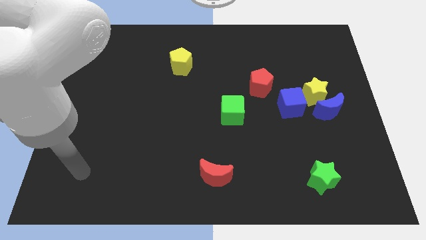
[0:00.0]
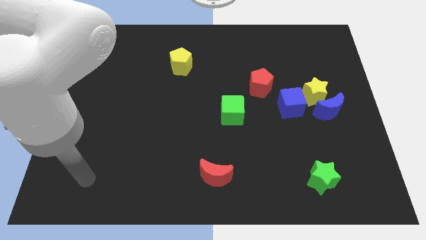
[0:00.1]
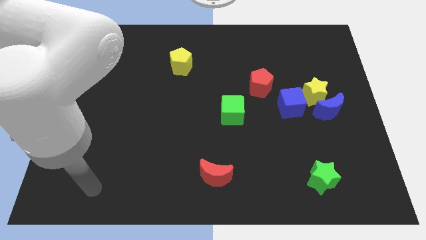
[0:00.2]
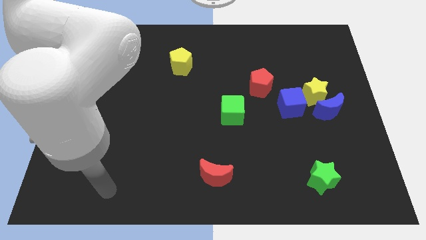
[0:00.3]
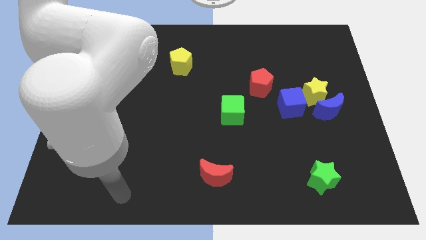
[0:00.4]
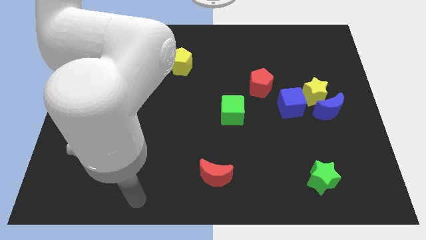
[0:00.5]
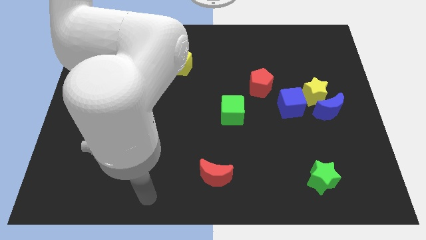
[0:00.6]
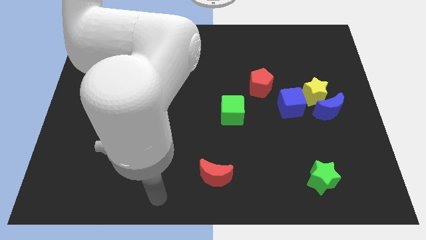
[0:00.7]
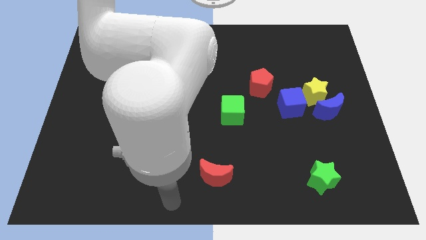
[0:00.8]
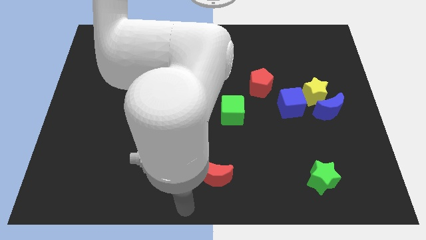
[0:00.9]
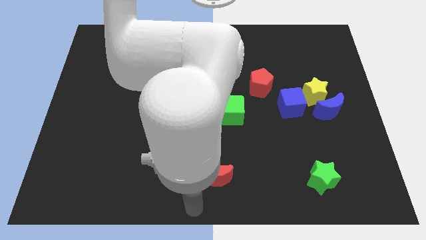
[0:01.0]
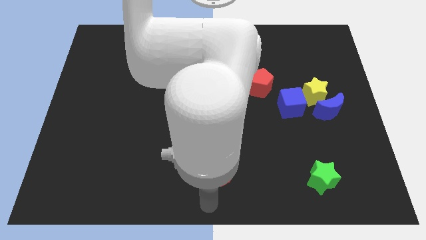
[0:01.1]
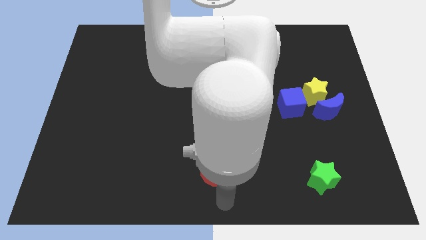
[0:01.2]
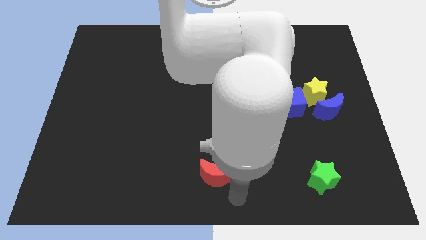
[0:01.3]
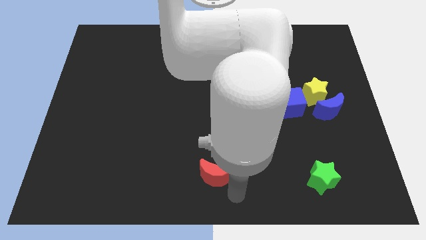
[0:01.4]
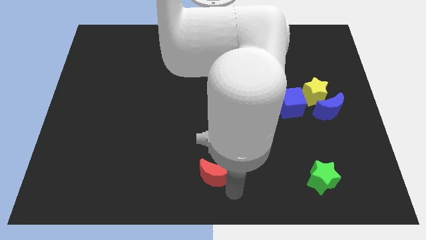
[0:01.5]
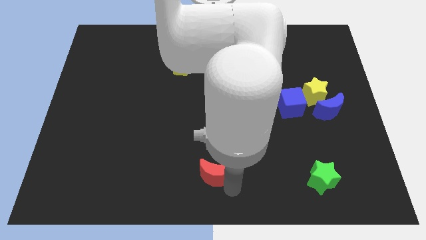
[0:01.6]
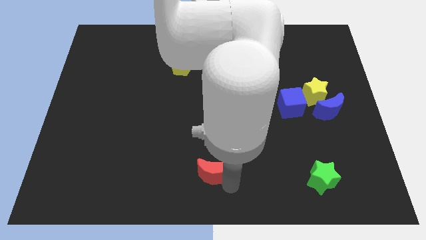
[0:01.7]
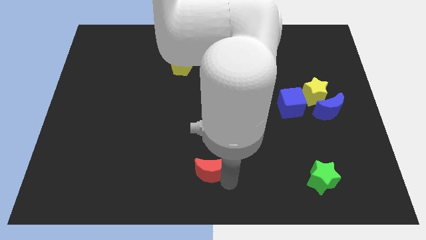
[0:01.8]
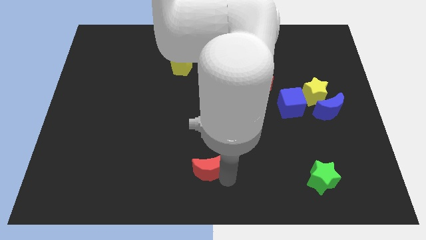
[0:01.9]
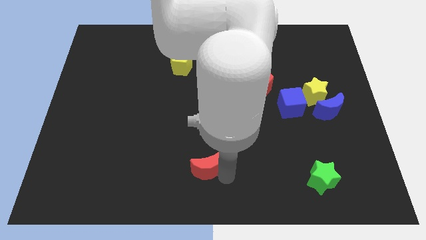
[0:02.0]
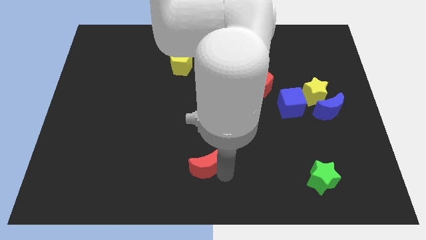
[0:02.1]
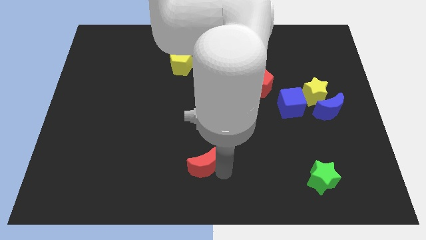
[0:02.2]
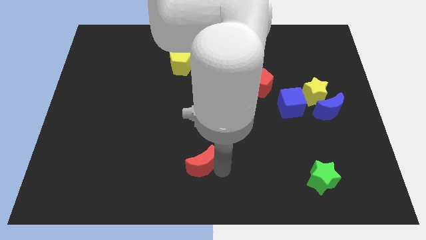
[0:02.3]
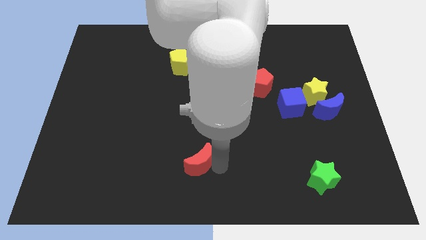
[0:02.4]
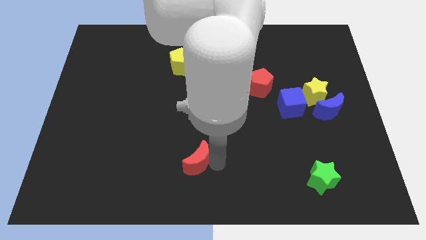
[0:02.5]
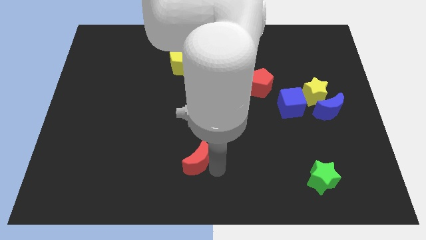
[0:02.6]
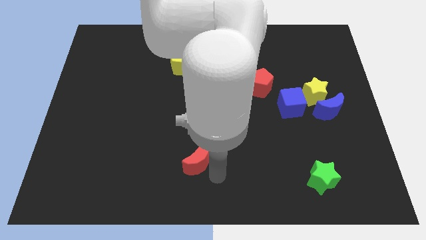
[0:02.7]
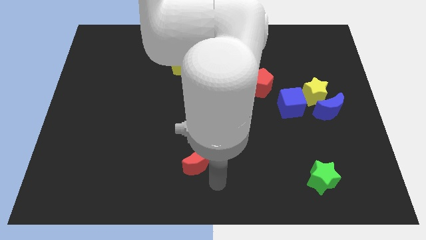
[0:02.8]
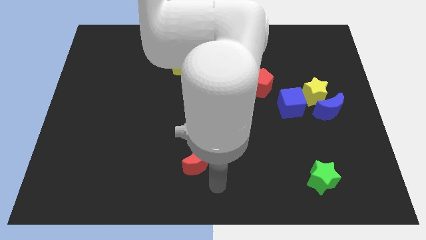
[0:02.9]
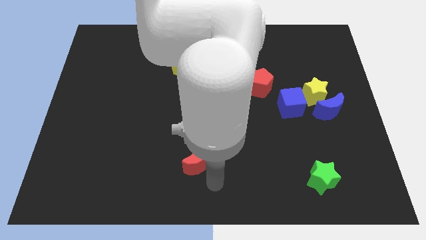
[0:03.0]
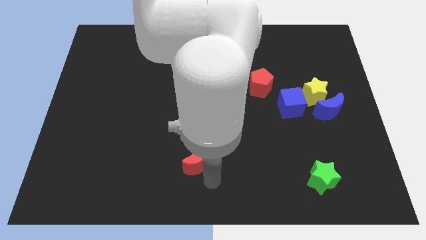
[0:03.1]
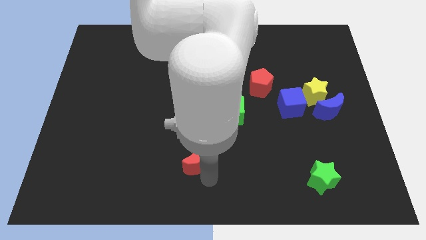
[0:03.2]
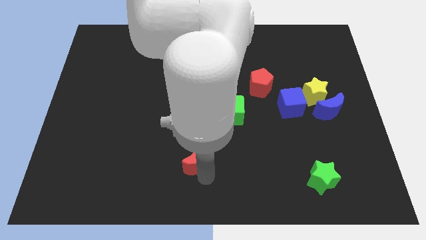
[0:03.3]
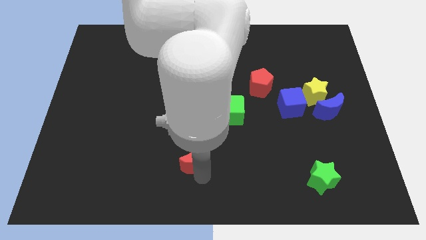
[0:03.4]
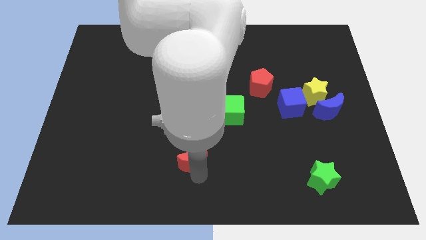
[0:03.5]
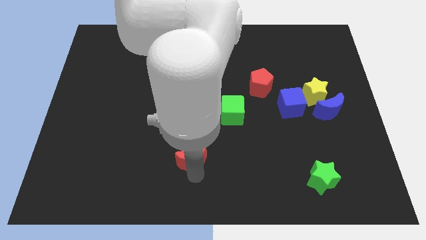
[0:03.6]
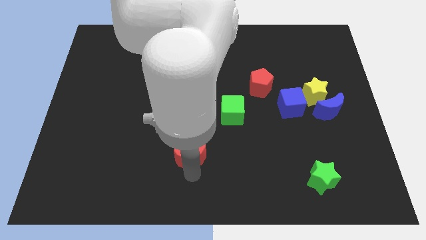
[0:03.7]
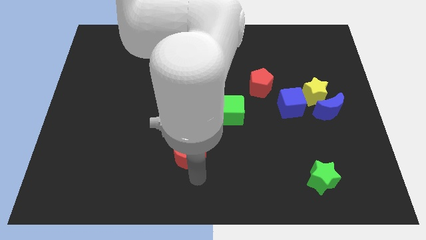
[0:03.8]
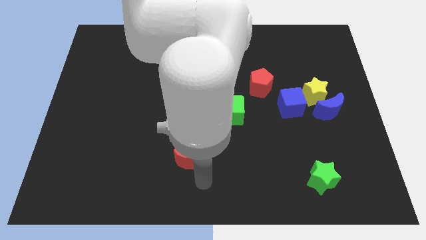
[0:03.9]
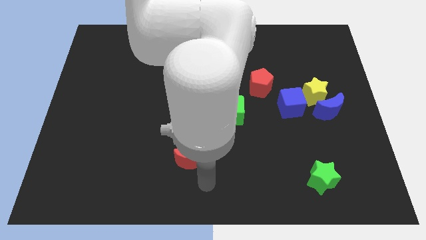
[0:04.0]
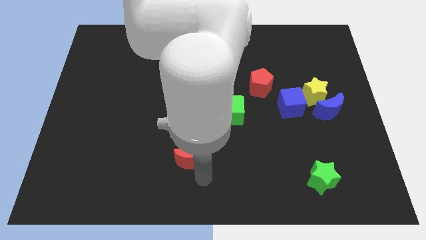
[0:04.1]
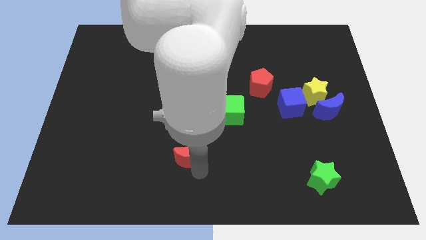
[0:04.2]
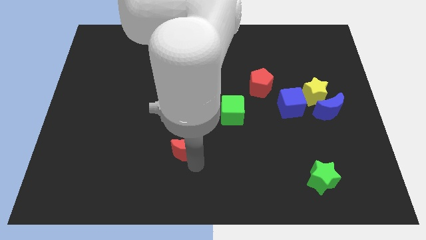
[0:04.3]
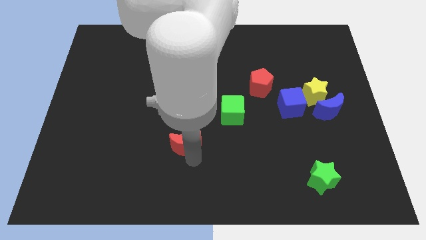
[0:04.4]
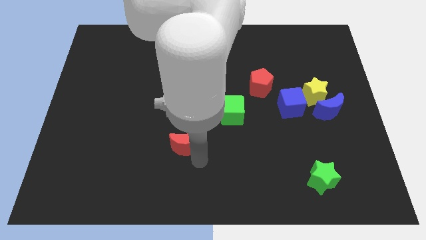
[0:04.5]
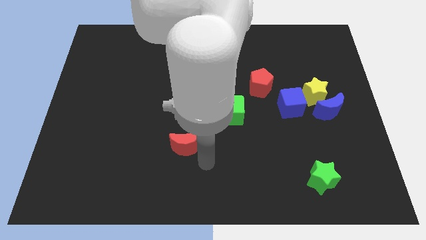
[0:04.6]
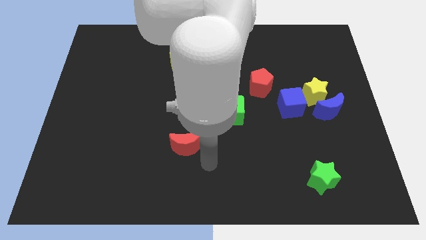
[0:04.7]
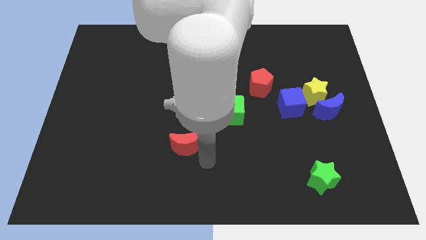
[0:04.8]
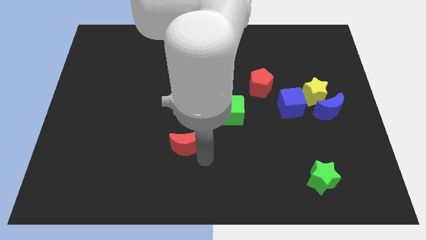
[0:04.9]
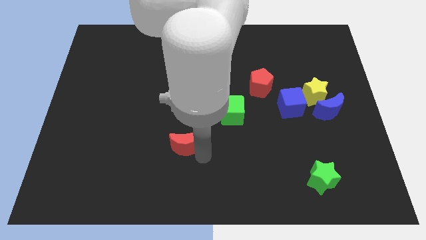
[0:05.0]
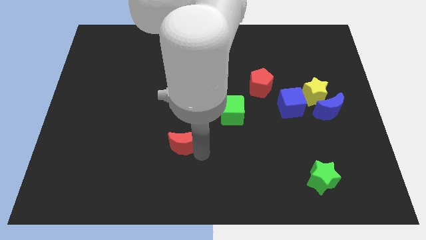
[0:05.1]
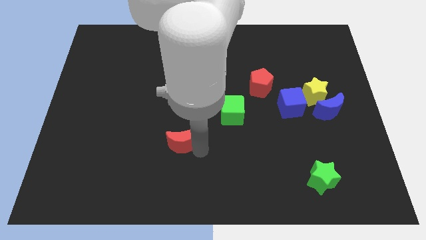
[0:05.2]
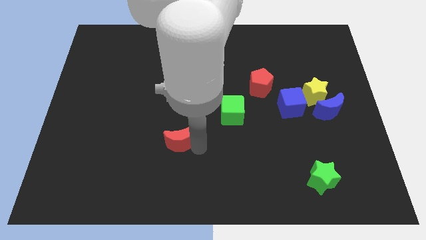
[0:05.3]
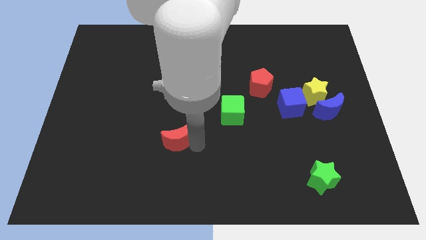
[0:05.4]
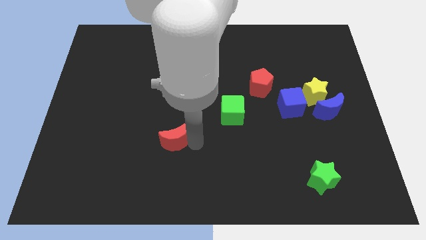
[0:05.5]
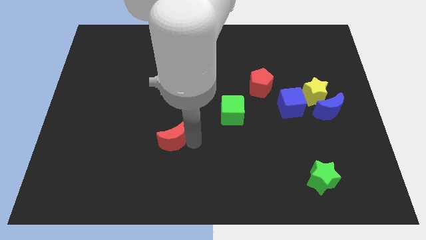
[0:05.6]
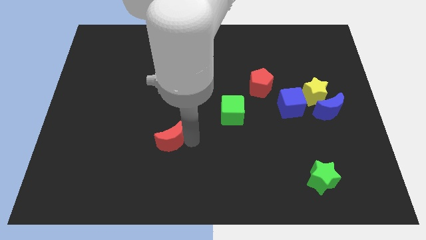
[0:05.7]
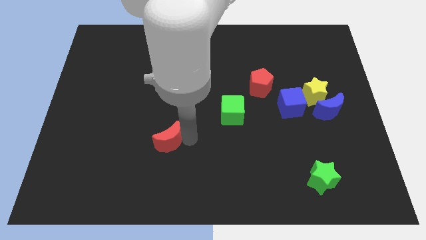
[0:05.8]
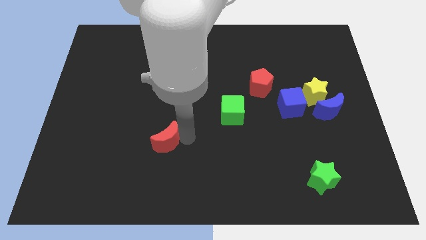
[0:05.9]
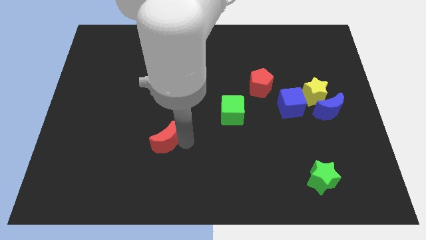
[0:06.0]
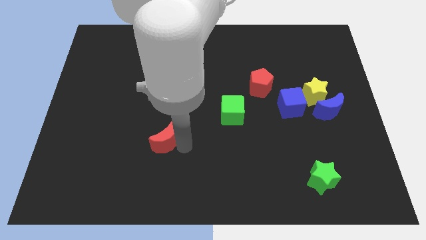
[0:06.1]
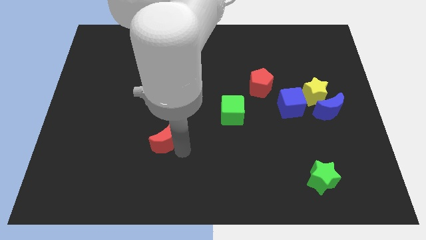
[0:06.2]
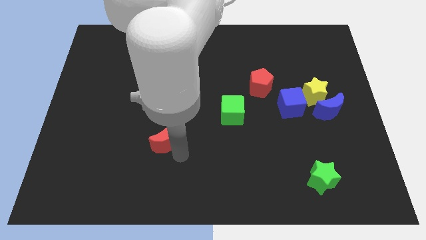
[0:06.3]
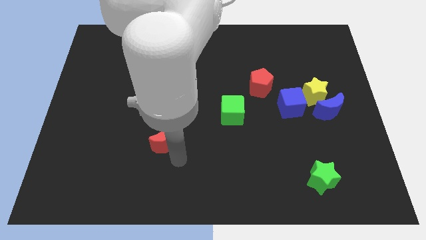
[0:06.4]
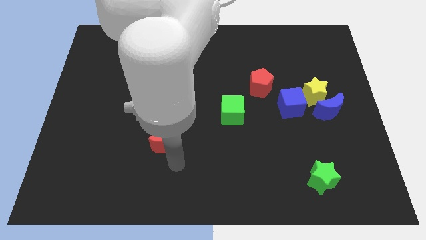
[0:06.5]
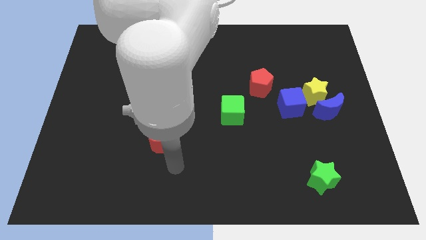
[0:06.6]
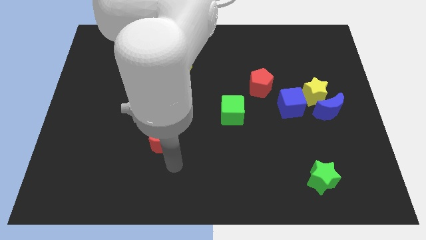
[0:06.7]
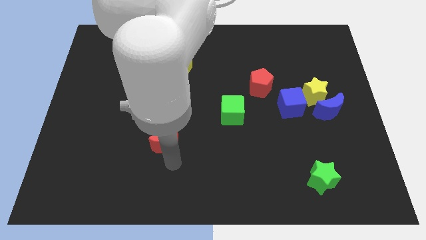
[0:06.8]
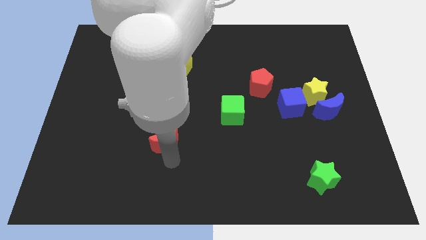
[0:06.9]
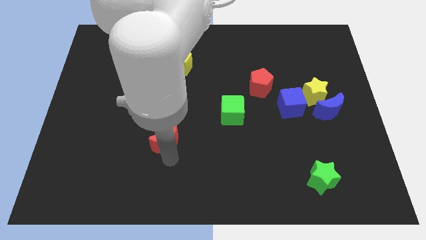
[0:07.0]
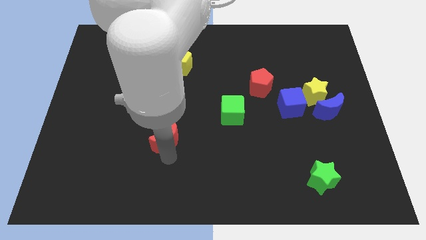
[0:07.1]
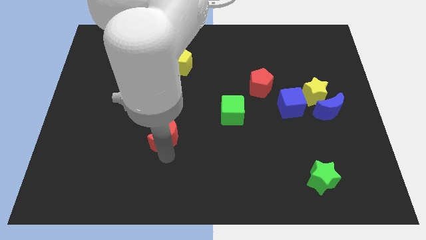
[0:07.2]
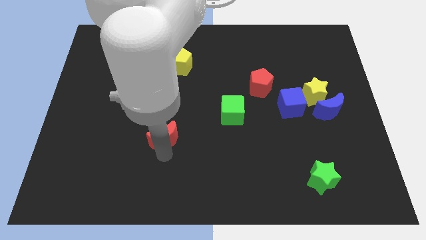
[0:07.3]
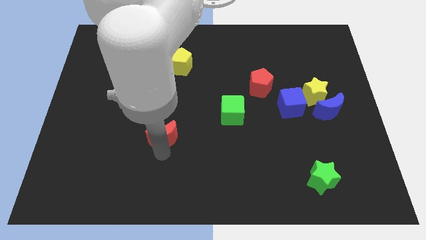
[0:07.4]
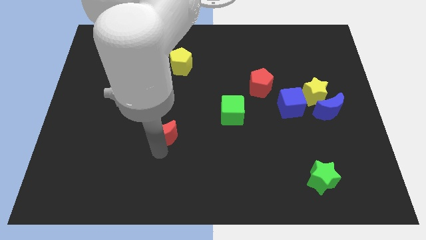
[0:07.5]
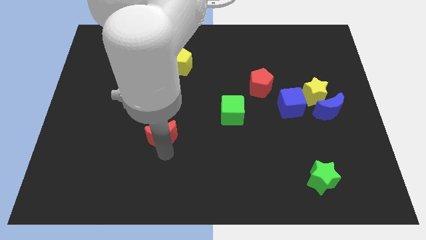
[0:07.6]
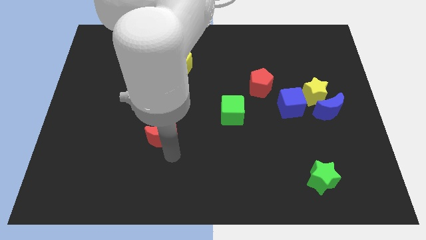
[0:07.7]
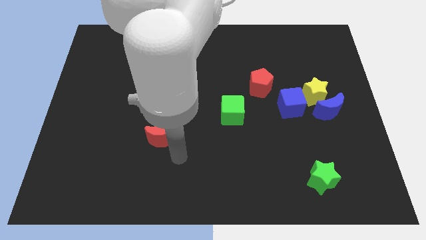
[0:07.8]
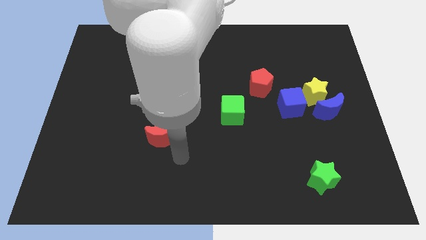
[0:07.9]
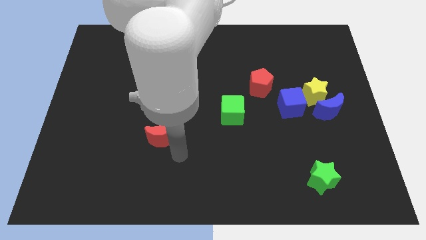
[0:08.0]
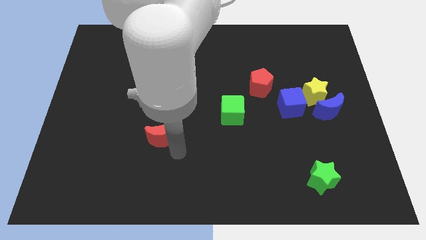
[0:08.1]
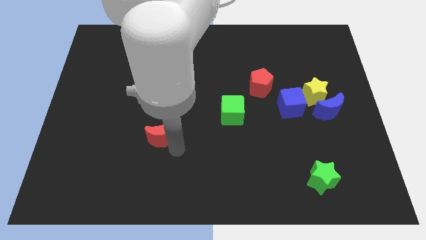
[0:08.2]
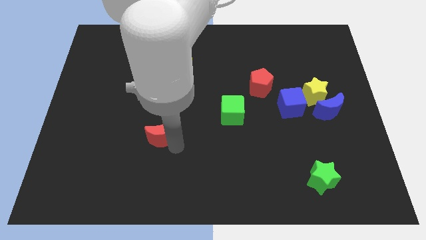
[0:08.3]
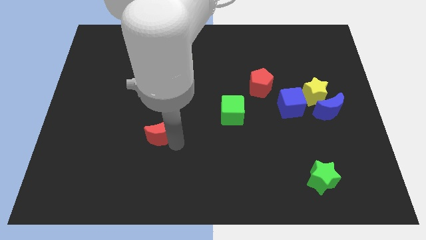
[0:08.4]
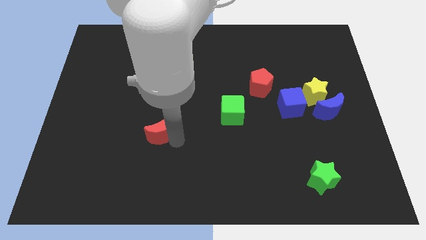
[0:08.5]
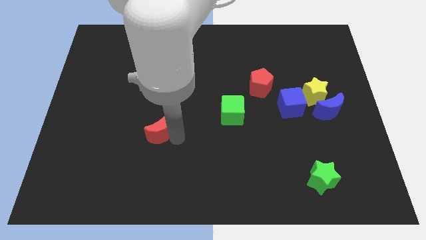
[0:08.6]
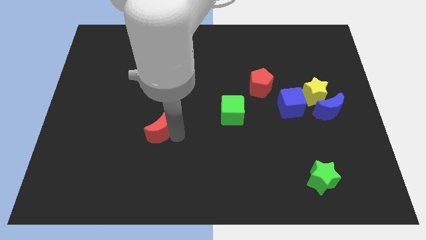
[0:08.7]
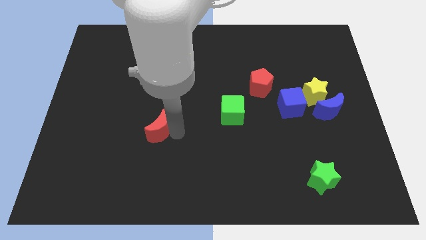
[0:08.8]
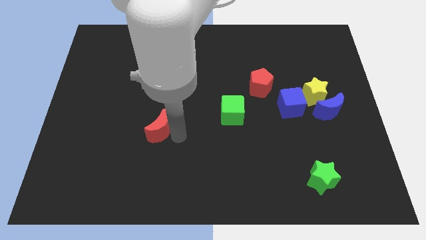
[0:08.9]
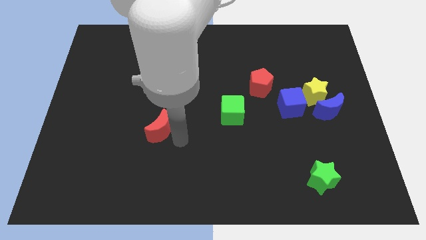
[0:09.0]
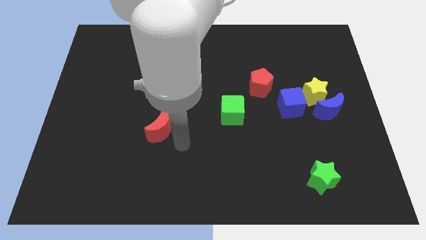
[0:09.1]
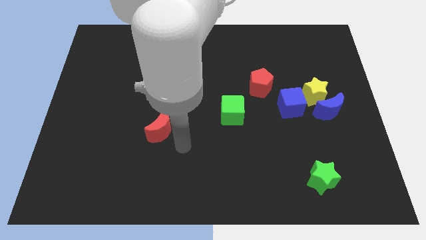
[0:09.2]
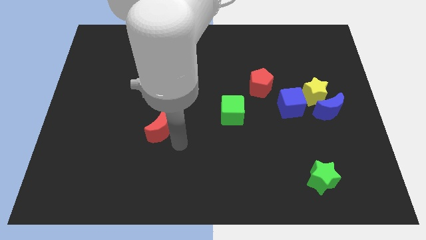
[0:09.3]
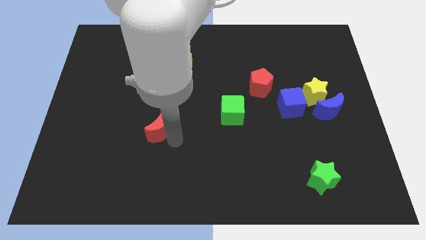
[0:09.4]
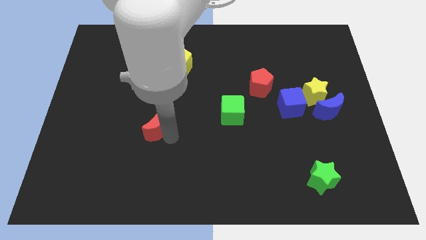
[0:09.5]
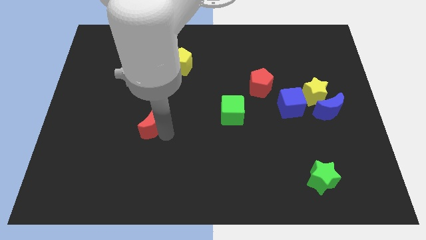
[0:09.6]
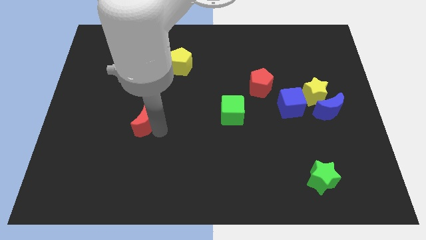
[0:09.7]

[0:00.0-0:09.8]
slide the red moon up and to the left diagonally
